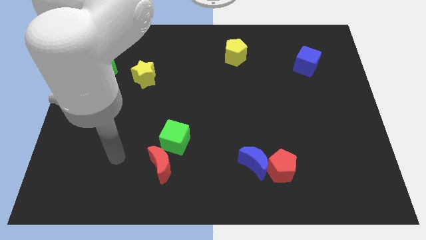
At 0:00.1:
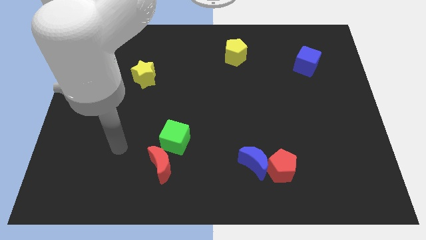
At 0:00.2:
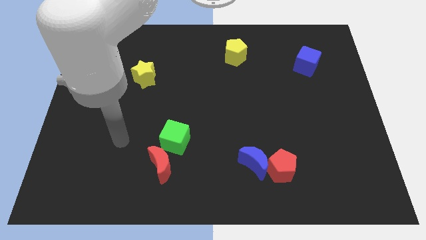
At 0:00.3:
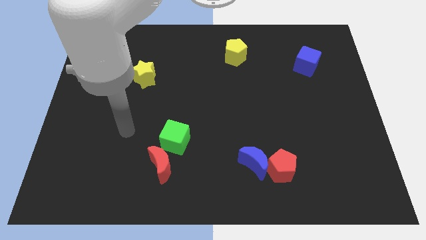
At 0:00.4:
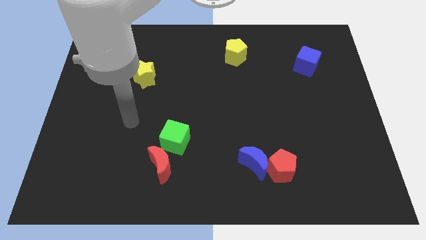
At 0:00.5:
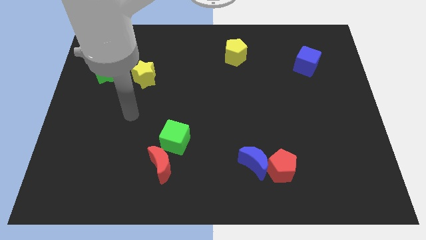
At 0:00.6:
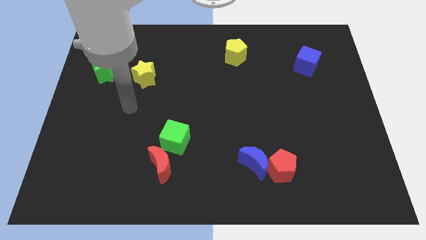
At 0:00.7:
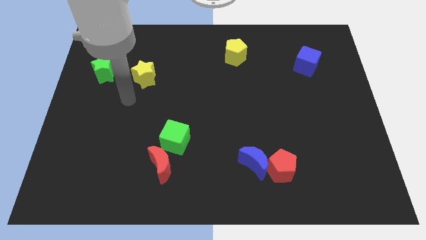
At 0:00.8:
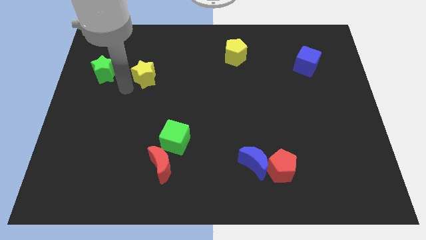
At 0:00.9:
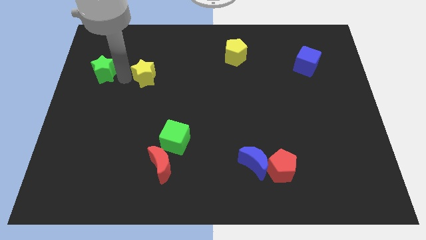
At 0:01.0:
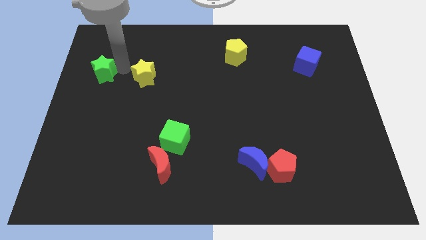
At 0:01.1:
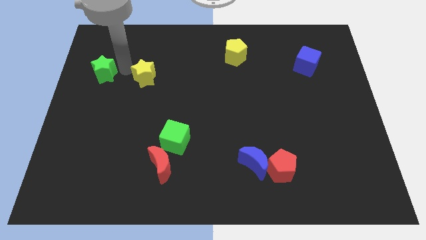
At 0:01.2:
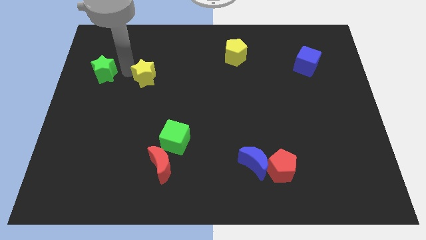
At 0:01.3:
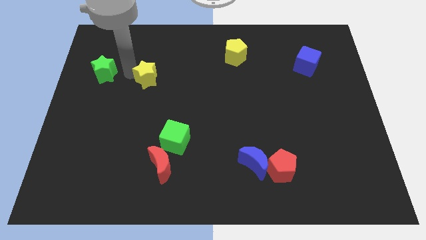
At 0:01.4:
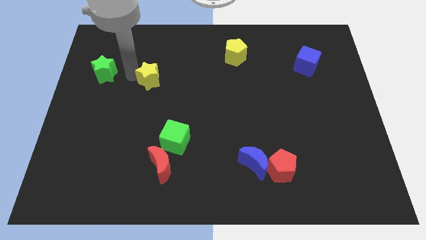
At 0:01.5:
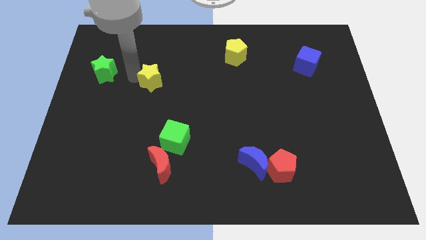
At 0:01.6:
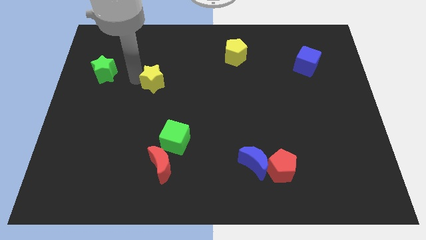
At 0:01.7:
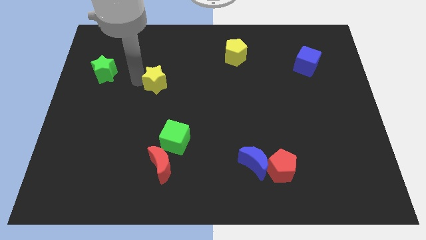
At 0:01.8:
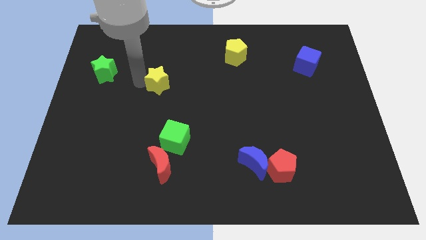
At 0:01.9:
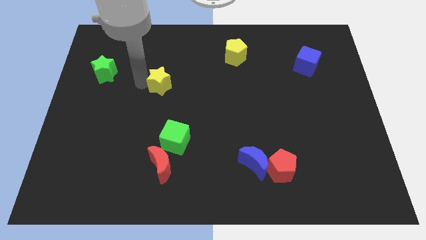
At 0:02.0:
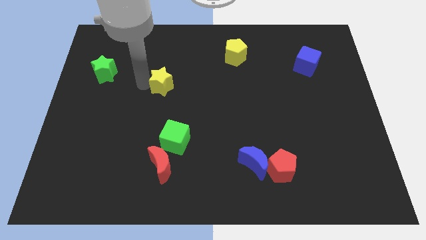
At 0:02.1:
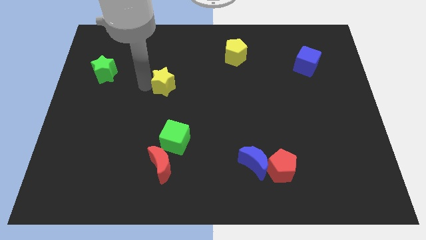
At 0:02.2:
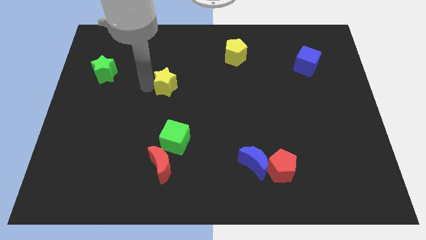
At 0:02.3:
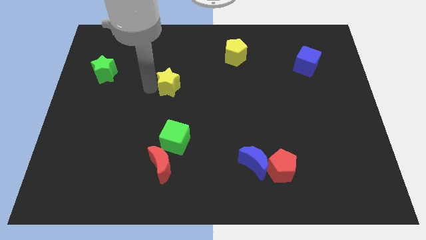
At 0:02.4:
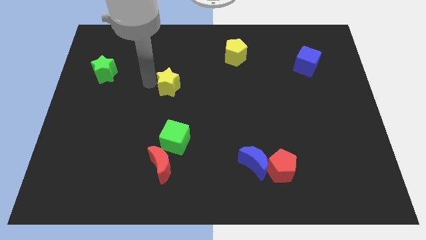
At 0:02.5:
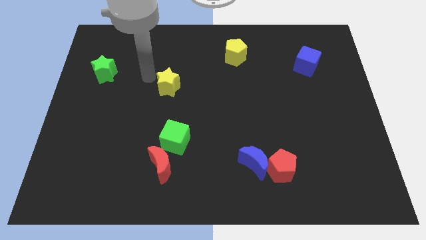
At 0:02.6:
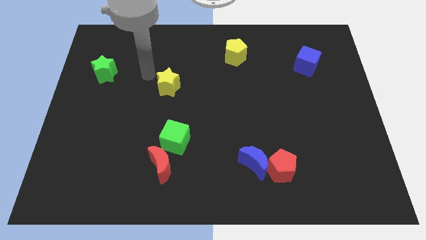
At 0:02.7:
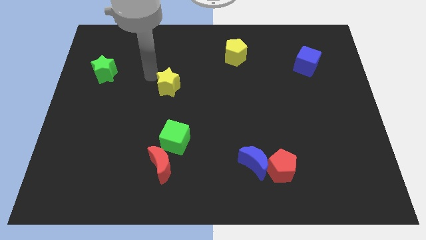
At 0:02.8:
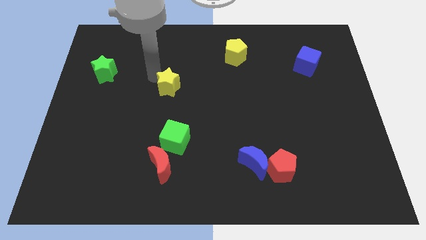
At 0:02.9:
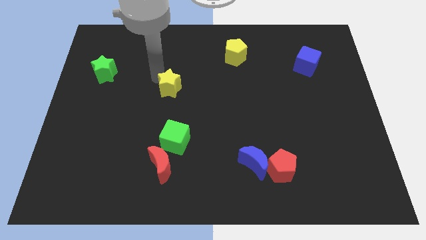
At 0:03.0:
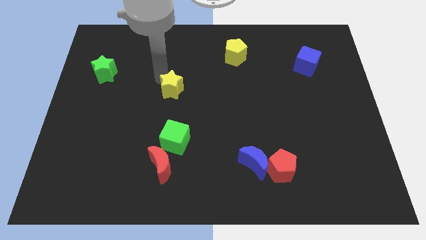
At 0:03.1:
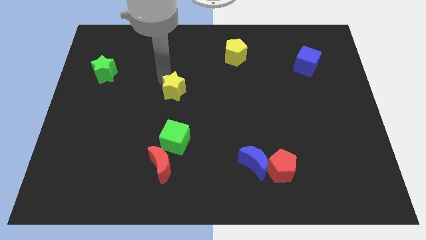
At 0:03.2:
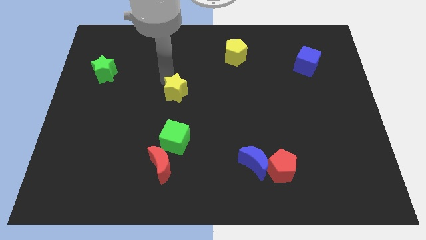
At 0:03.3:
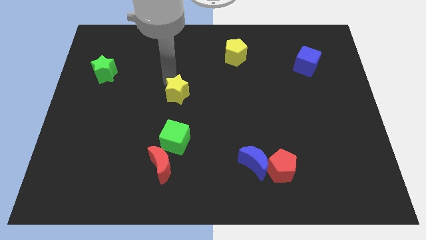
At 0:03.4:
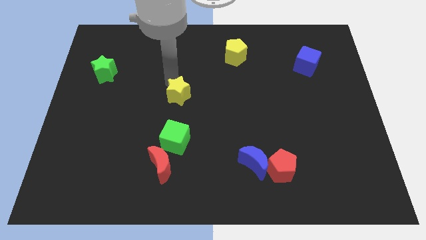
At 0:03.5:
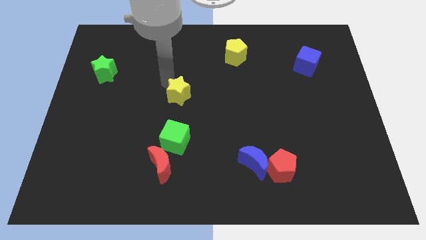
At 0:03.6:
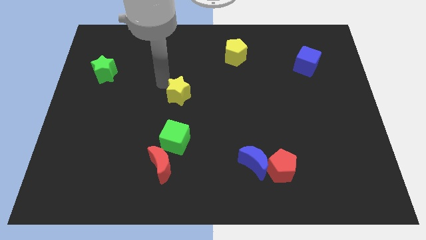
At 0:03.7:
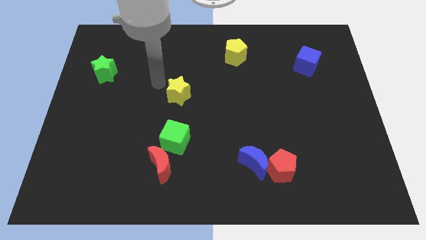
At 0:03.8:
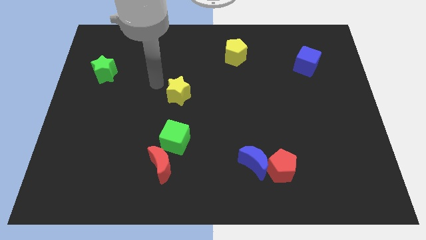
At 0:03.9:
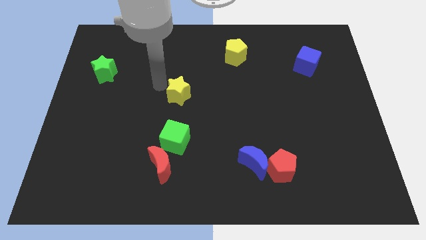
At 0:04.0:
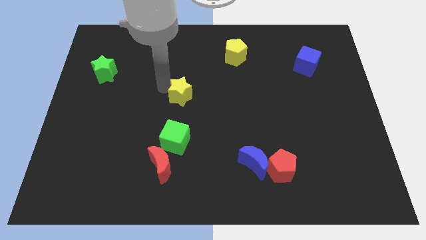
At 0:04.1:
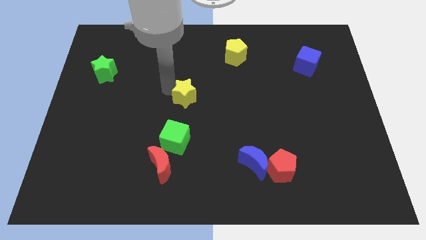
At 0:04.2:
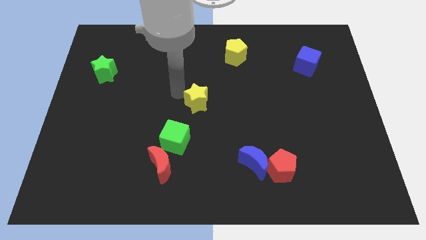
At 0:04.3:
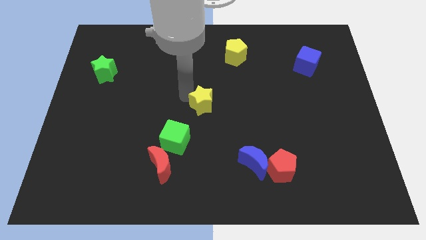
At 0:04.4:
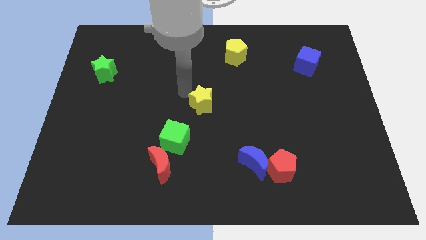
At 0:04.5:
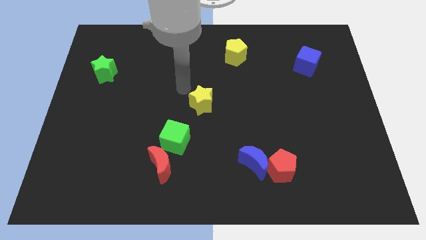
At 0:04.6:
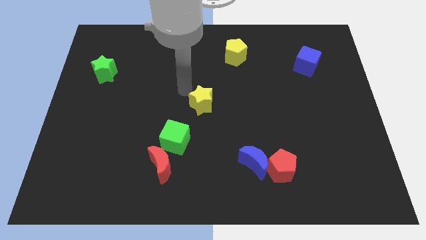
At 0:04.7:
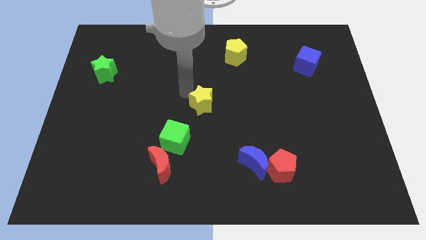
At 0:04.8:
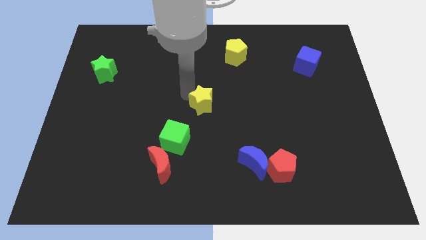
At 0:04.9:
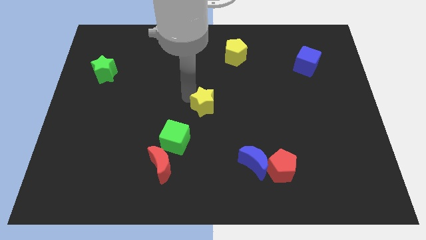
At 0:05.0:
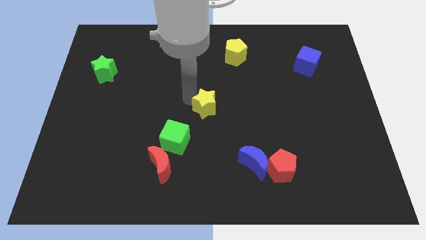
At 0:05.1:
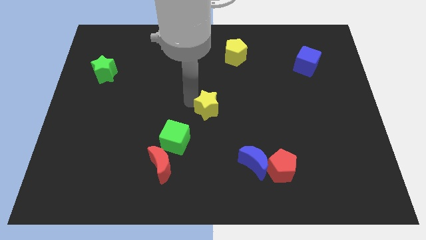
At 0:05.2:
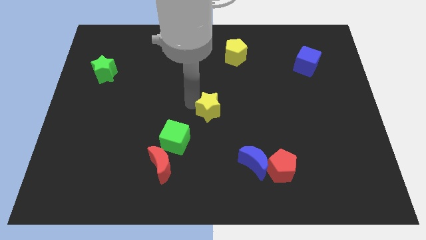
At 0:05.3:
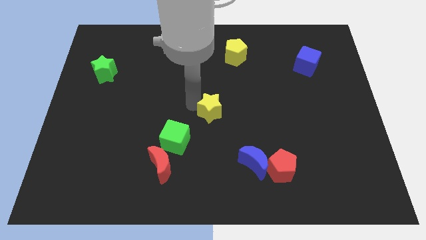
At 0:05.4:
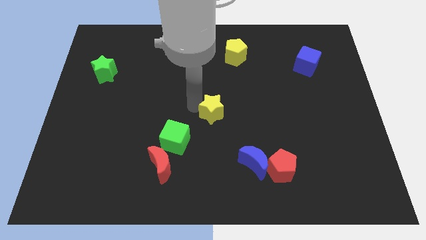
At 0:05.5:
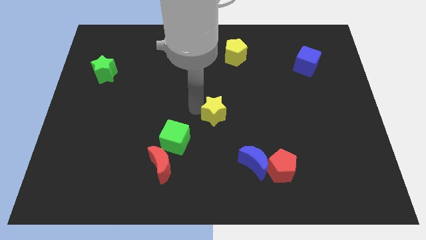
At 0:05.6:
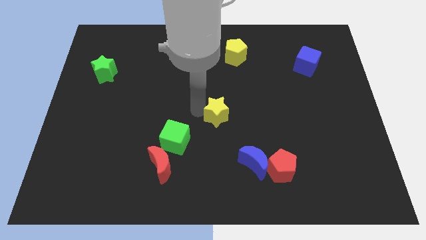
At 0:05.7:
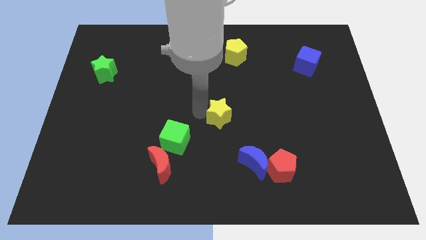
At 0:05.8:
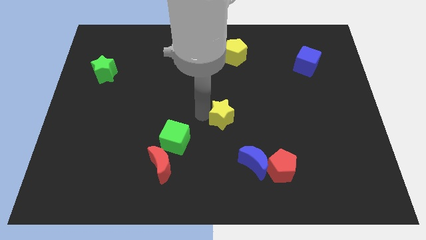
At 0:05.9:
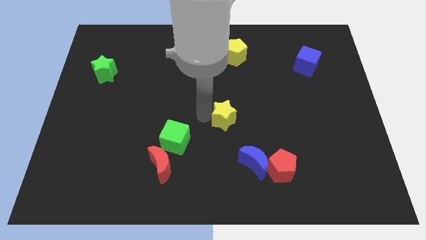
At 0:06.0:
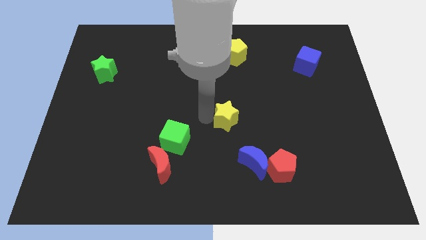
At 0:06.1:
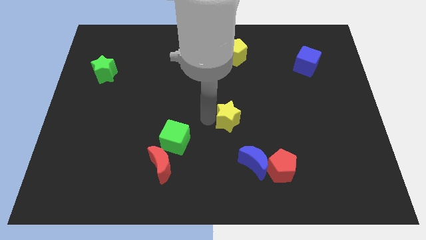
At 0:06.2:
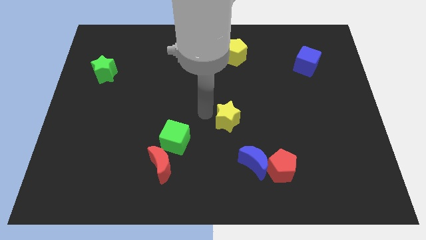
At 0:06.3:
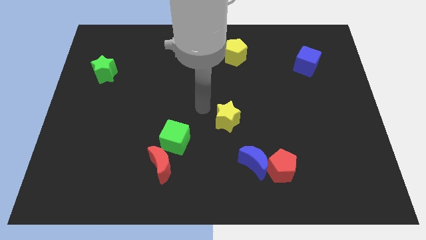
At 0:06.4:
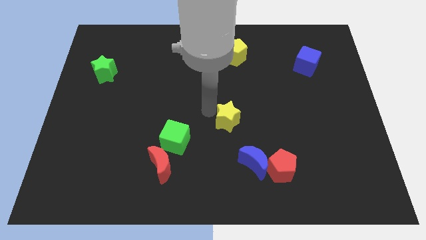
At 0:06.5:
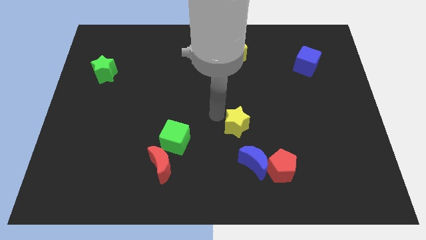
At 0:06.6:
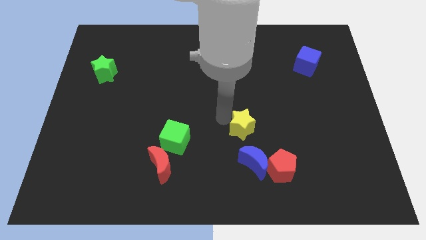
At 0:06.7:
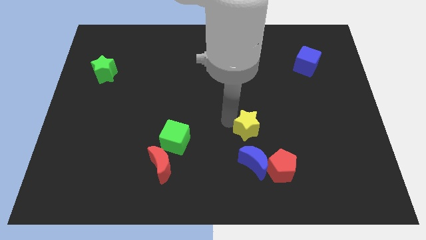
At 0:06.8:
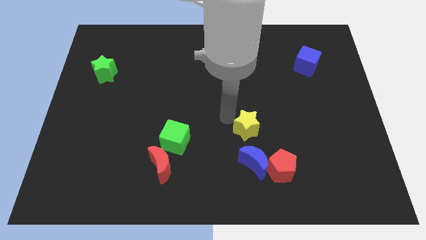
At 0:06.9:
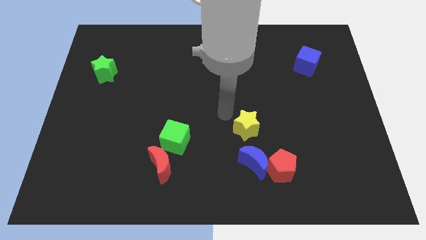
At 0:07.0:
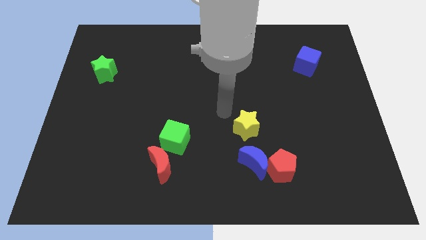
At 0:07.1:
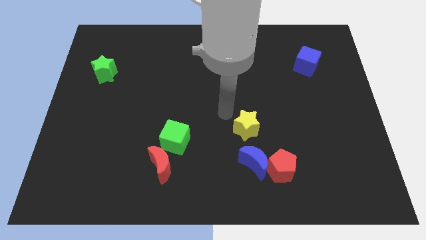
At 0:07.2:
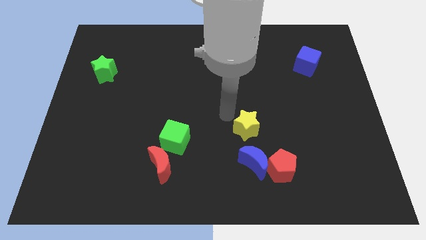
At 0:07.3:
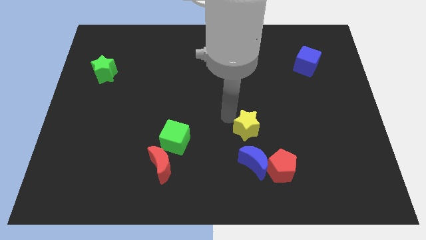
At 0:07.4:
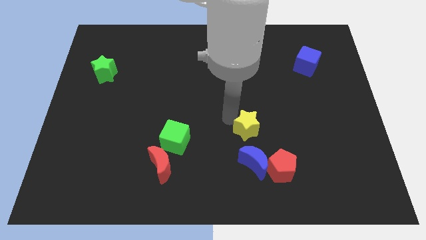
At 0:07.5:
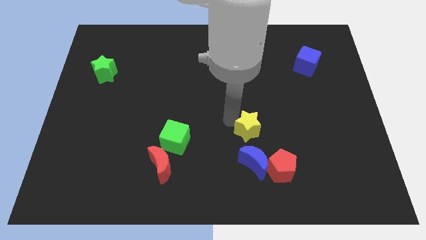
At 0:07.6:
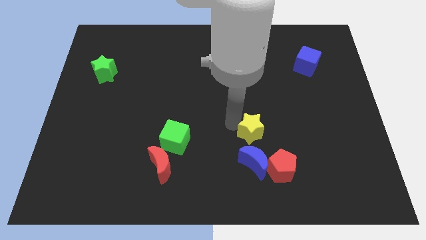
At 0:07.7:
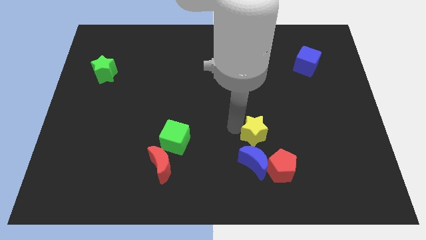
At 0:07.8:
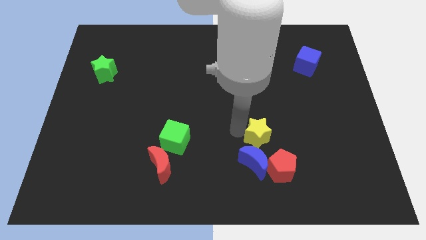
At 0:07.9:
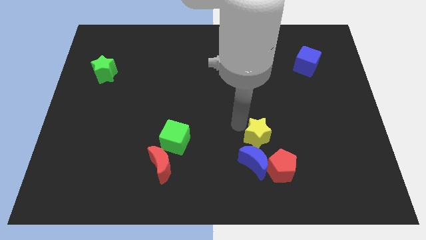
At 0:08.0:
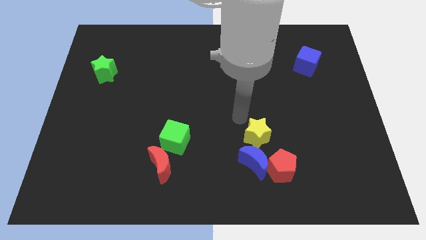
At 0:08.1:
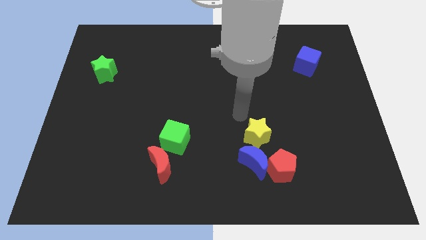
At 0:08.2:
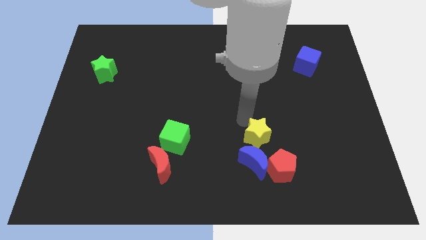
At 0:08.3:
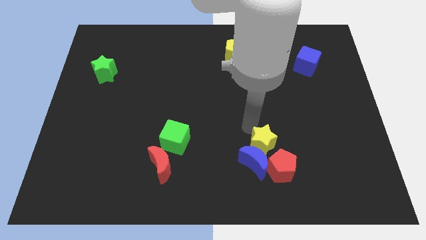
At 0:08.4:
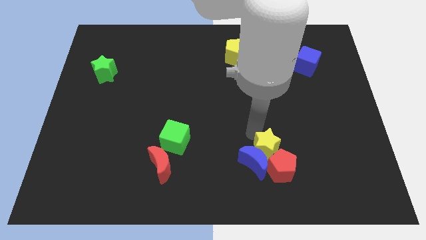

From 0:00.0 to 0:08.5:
move the yellow star to the red pentagon
